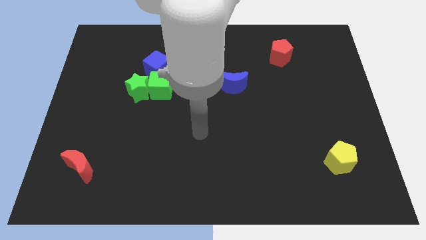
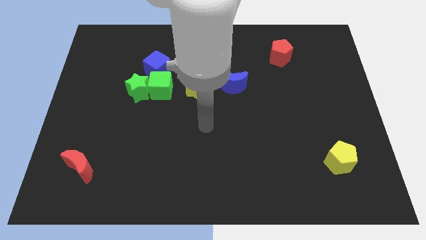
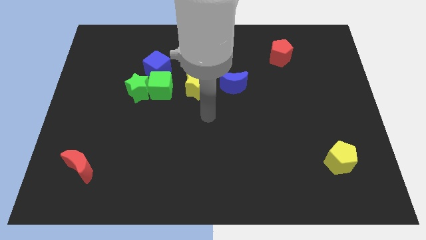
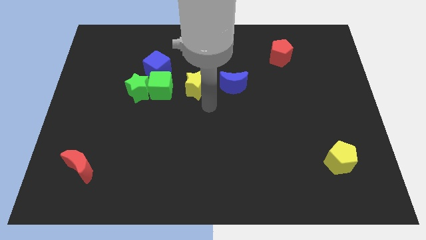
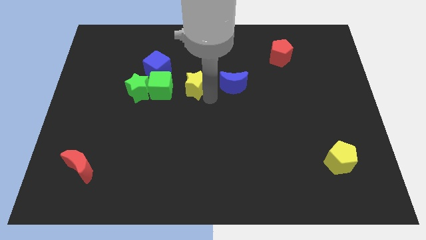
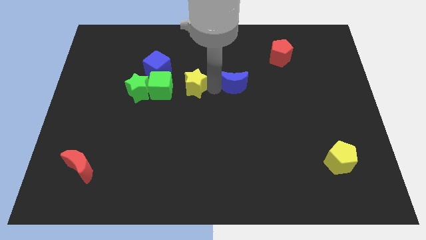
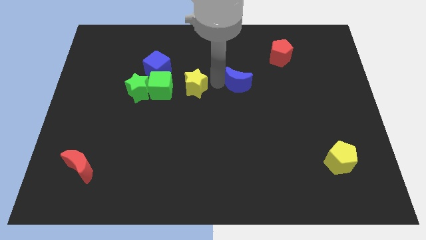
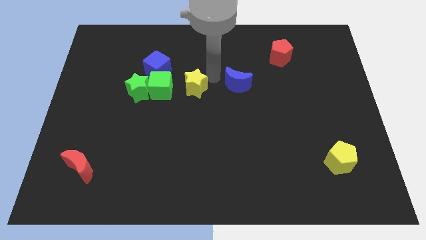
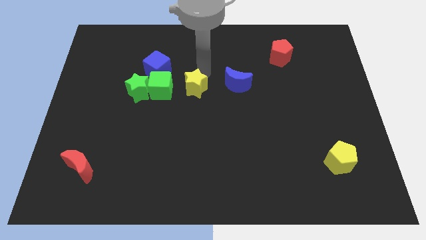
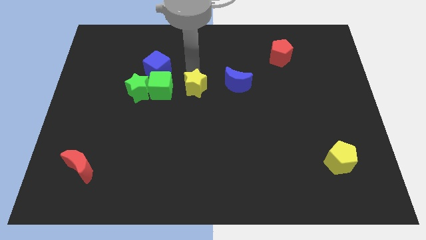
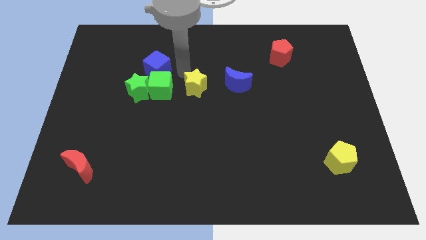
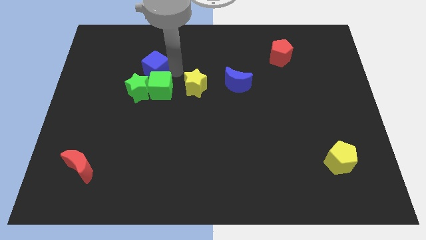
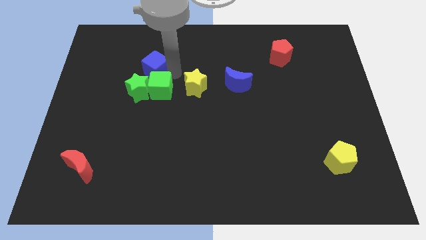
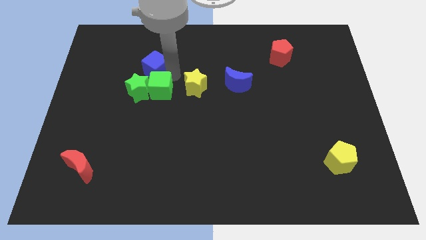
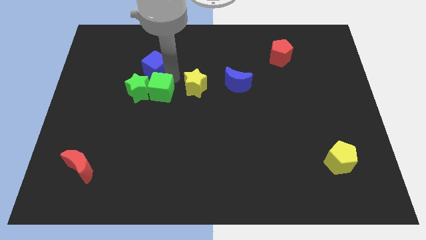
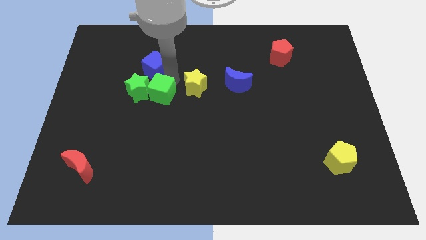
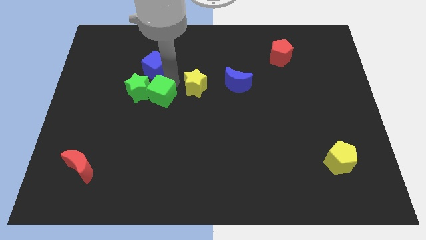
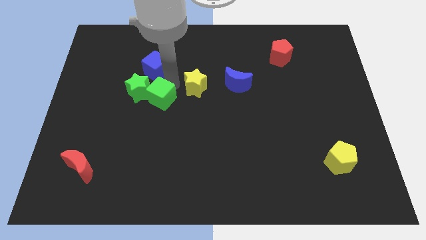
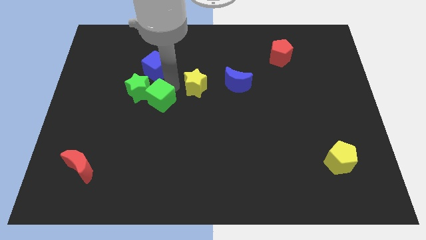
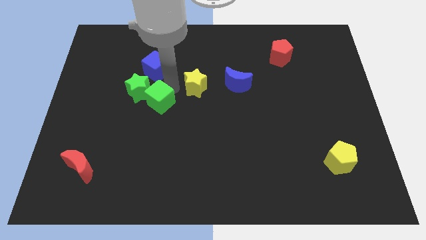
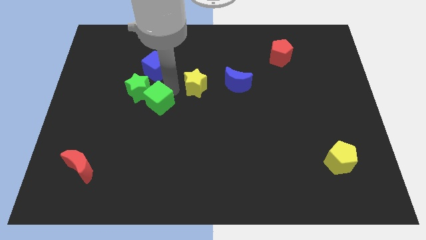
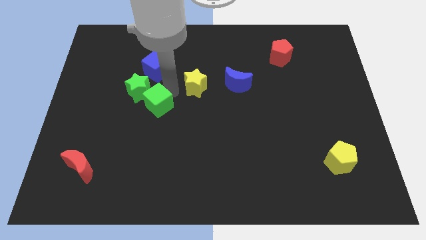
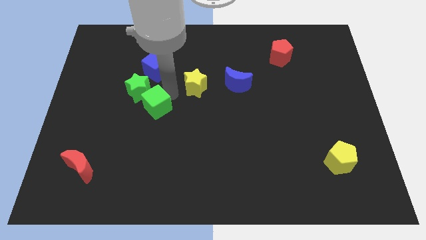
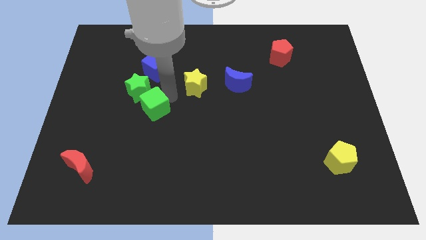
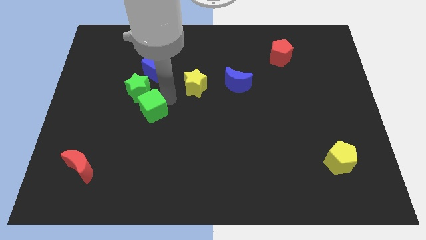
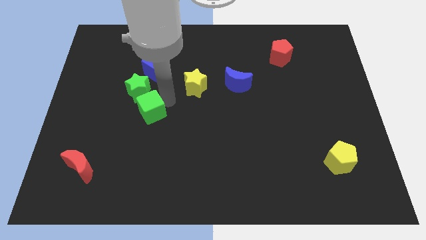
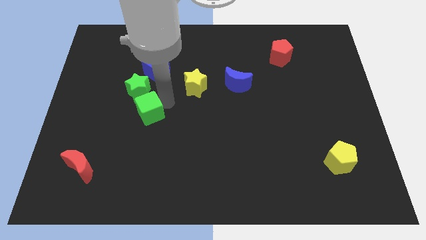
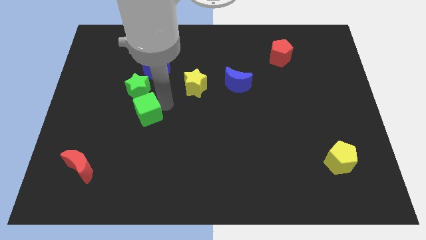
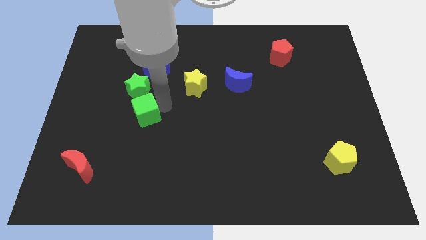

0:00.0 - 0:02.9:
push the green cube a little diagonally down and to the left

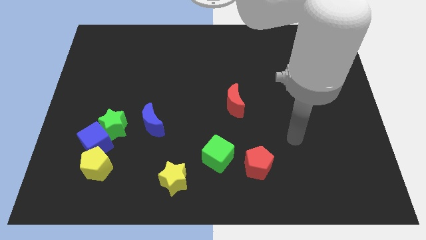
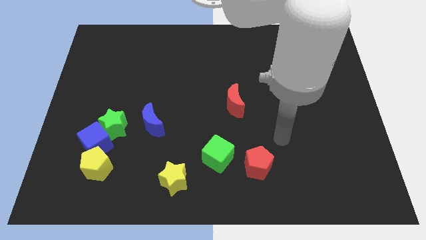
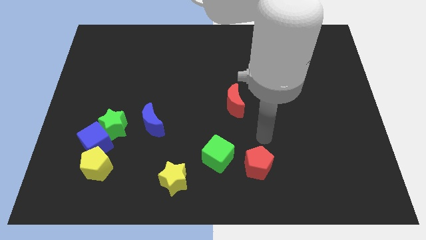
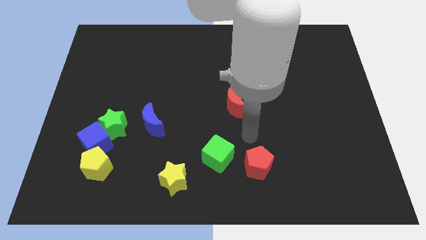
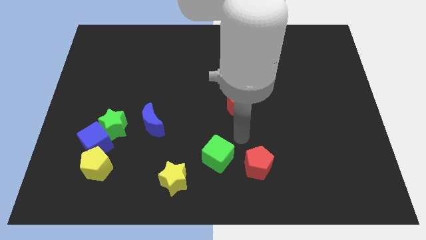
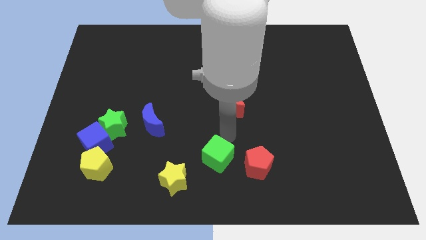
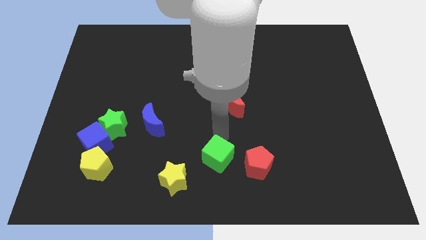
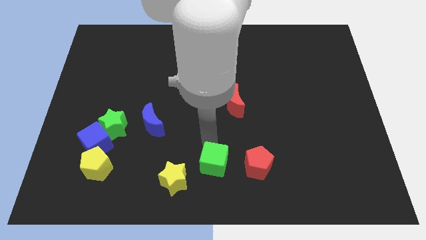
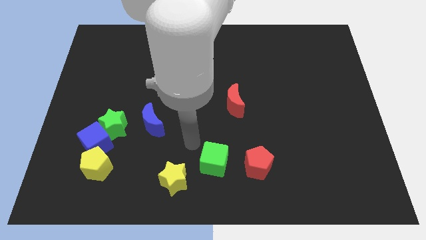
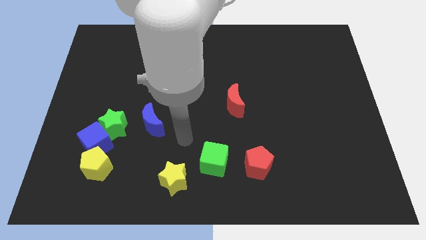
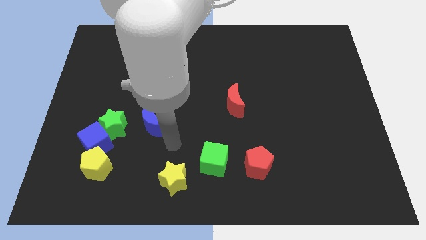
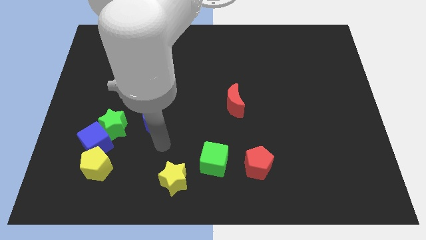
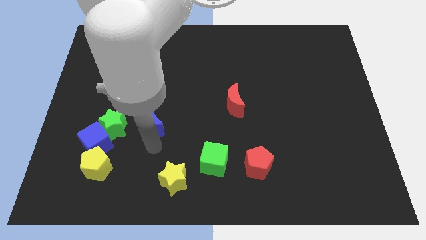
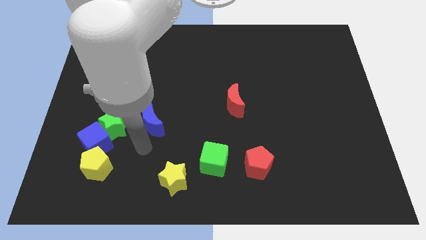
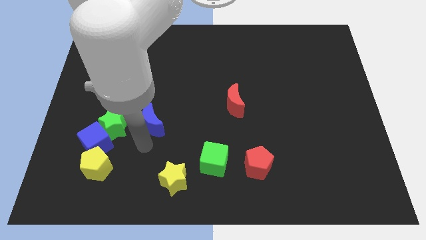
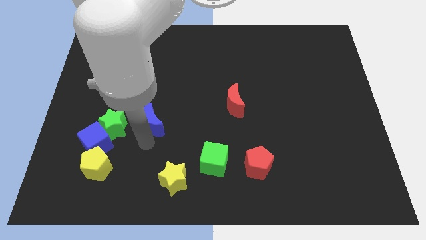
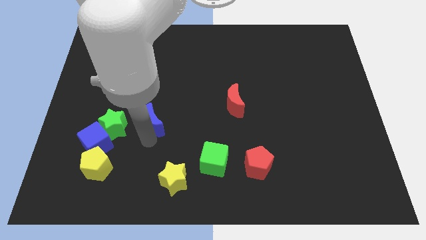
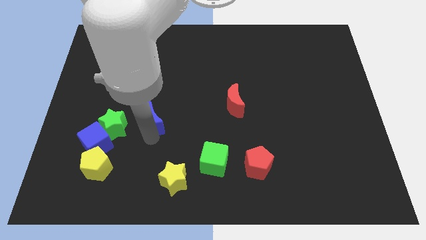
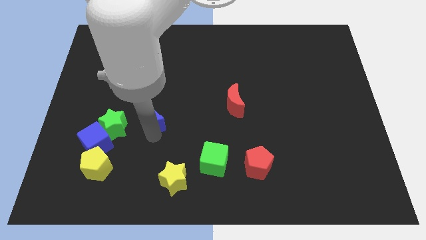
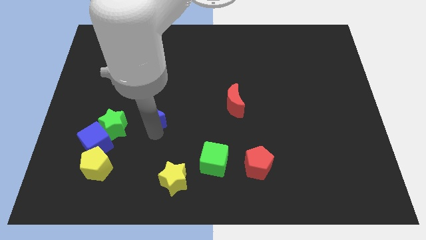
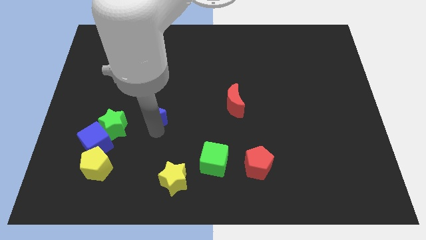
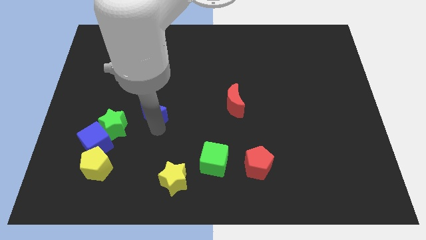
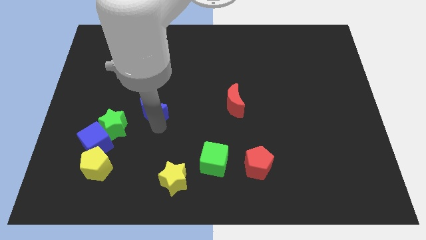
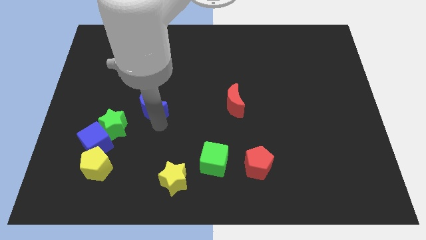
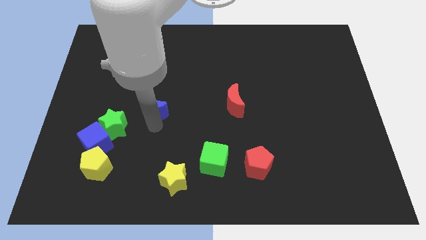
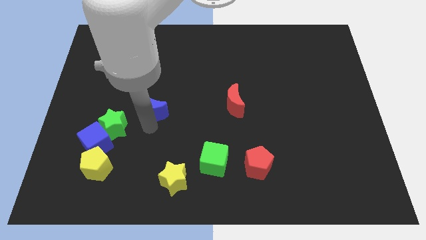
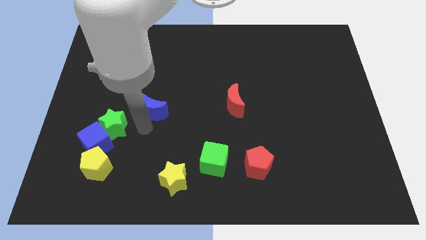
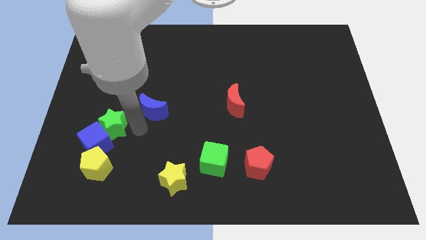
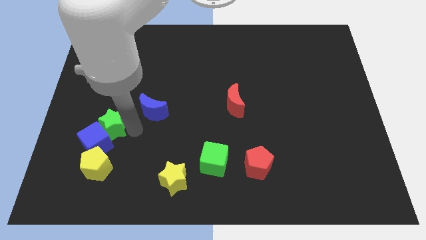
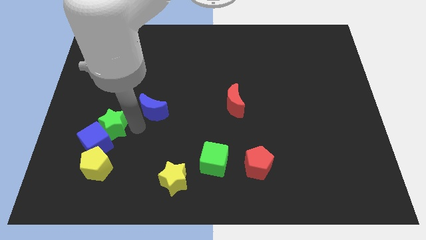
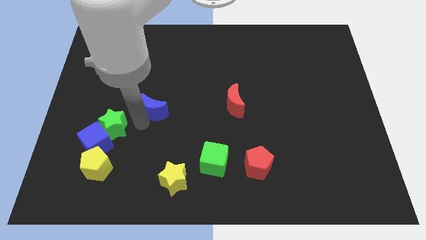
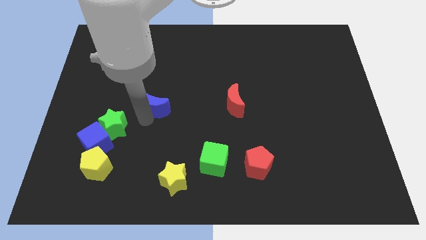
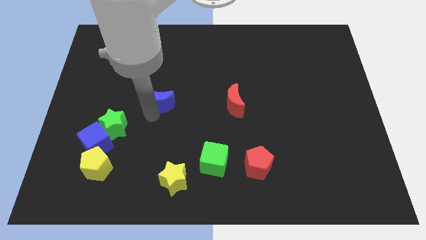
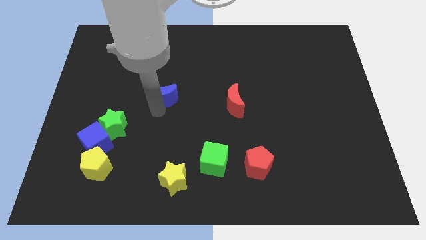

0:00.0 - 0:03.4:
slightly slide the blue moon upwards

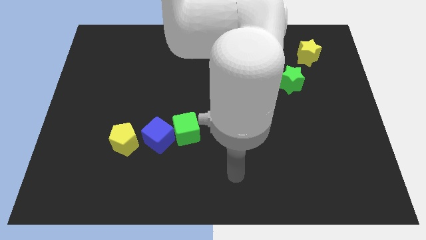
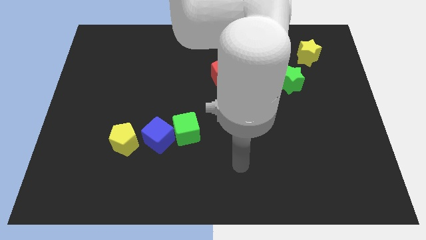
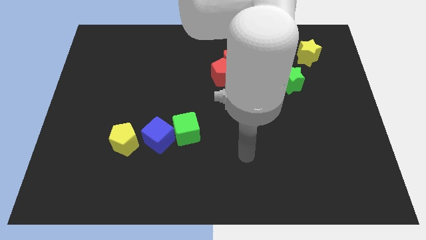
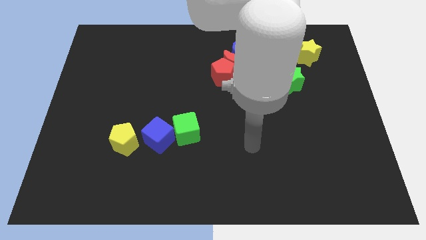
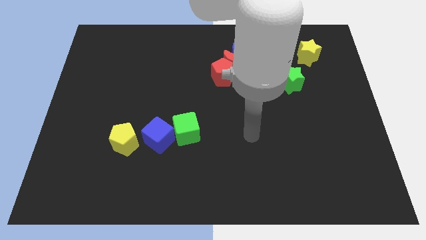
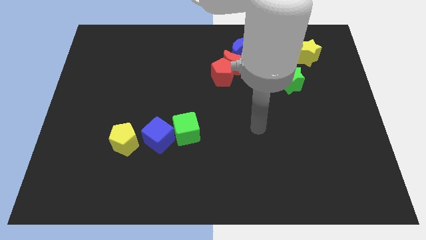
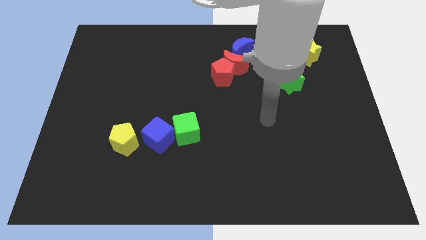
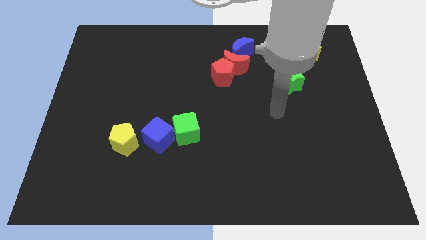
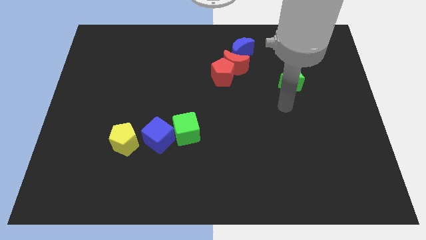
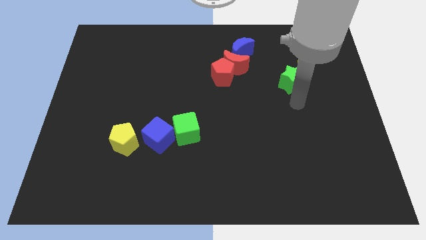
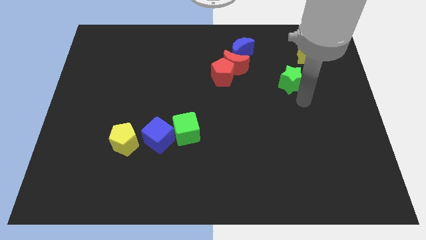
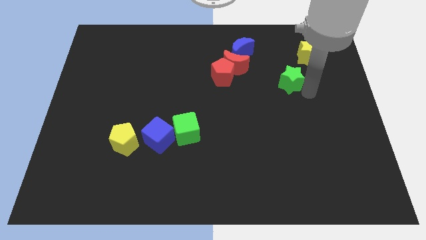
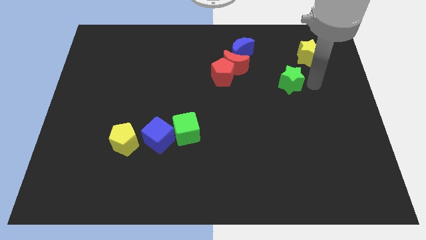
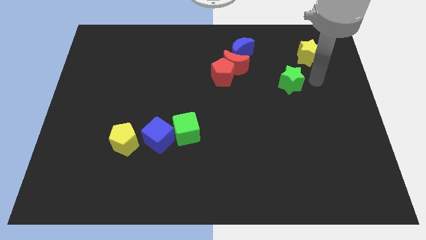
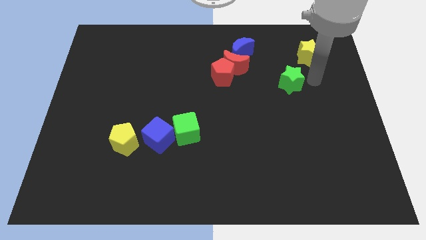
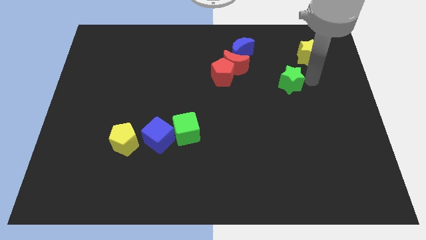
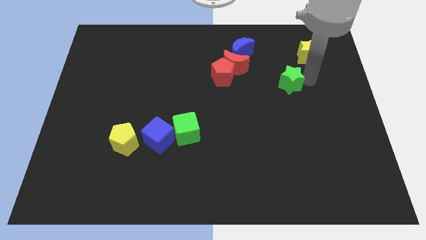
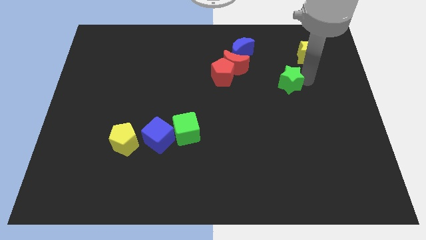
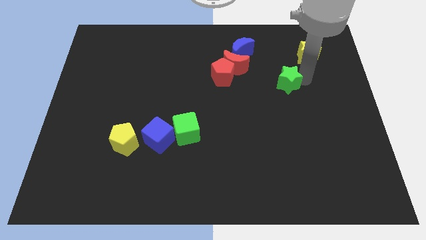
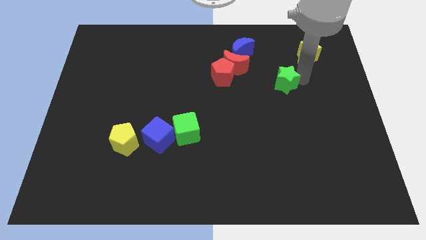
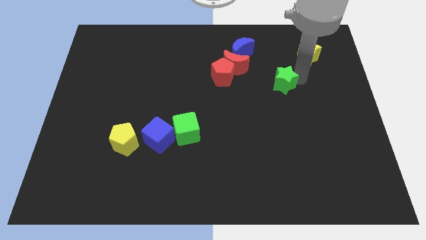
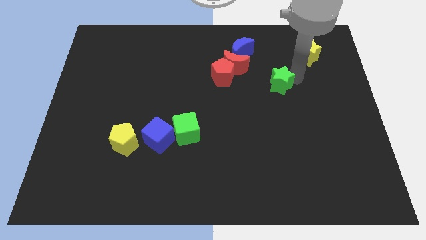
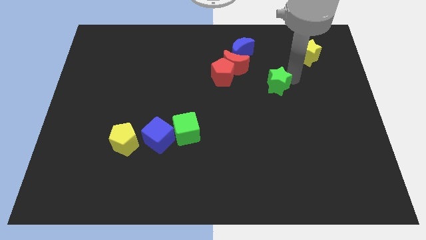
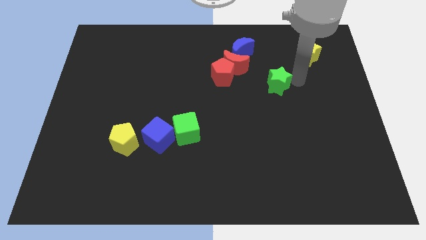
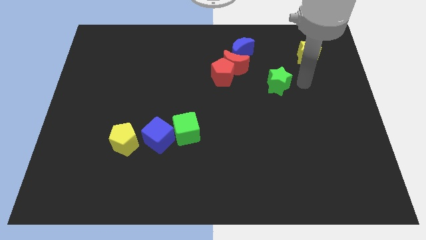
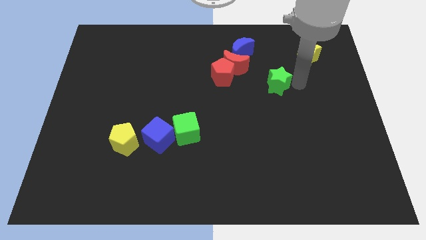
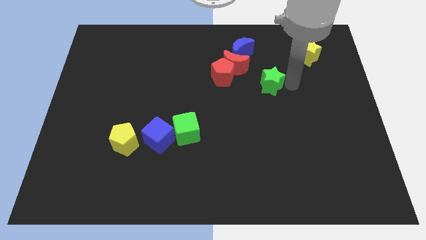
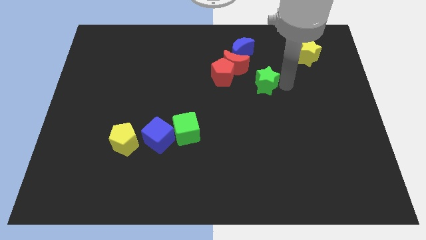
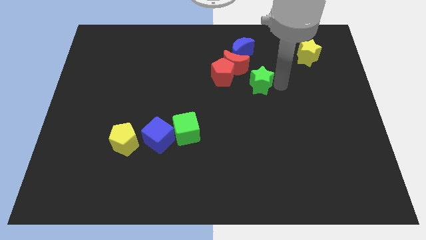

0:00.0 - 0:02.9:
push the green star a bit to the left
